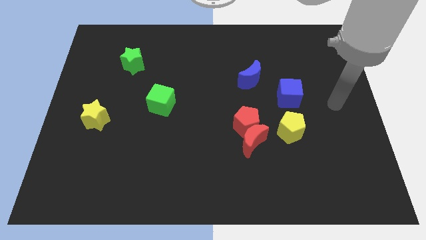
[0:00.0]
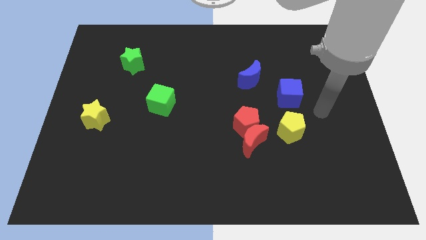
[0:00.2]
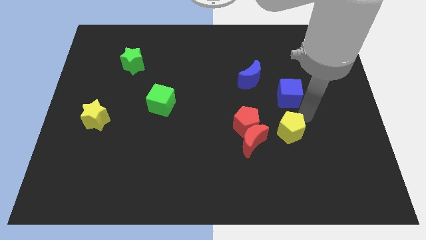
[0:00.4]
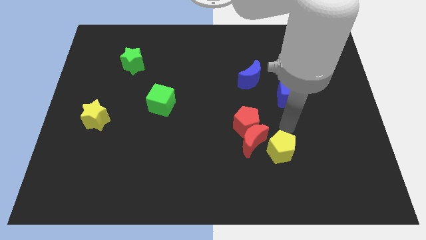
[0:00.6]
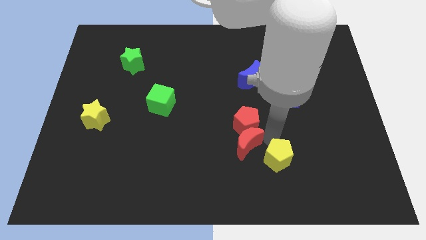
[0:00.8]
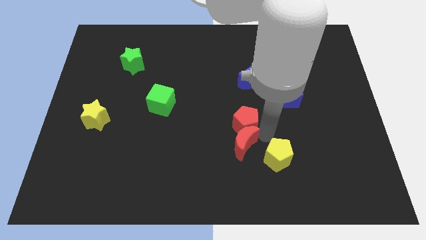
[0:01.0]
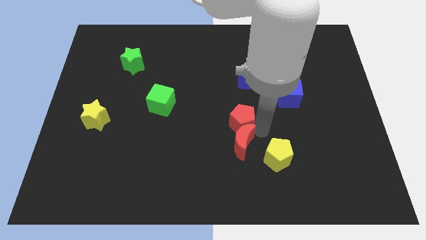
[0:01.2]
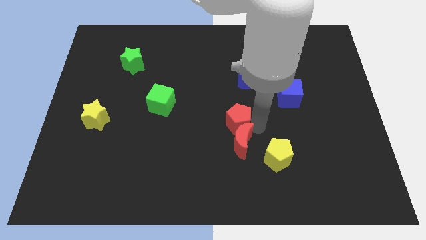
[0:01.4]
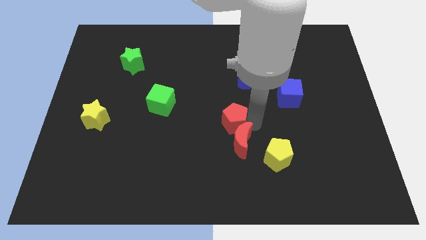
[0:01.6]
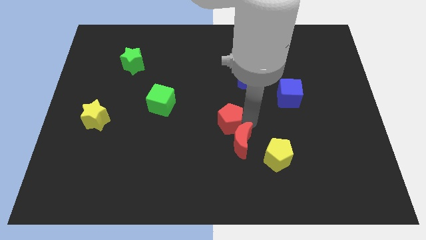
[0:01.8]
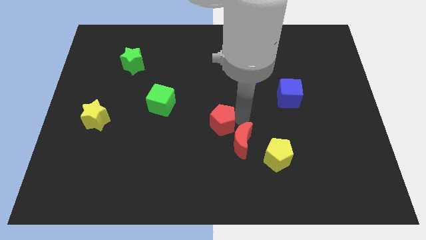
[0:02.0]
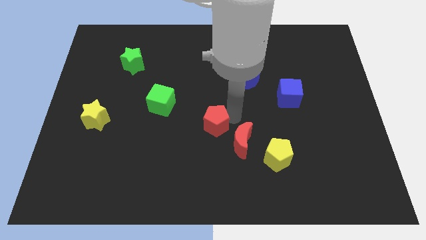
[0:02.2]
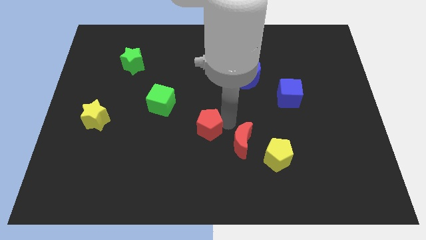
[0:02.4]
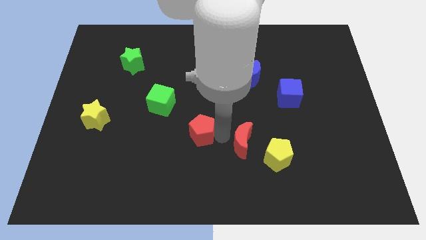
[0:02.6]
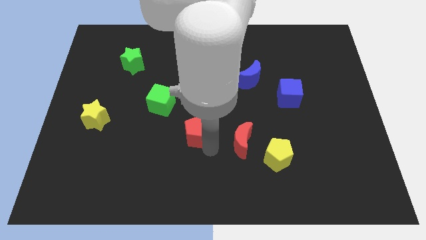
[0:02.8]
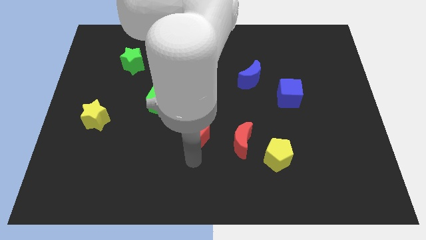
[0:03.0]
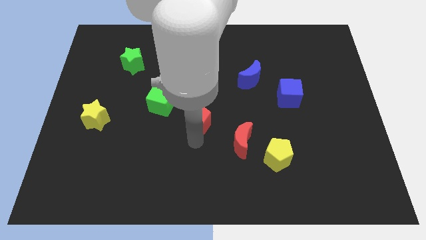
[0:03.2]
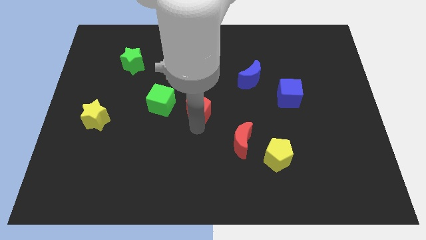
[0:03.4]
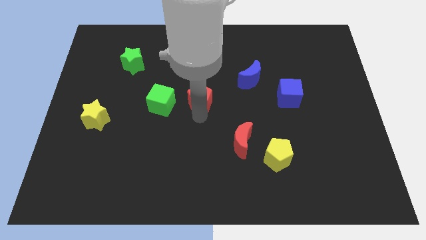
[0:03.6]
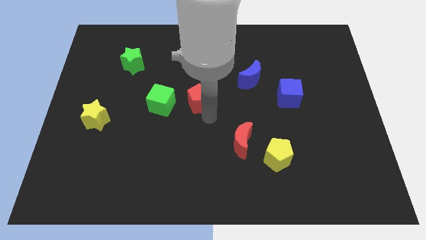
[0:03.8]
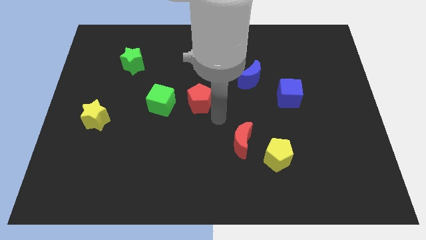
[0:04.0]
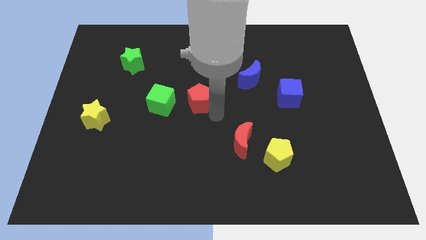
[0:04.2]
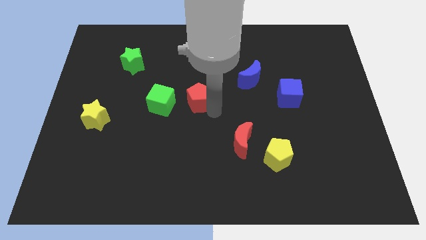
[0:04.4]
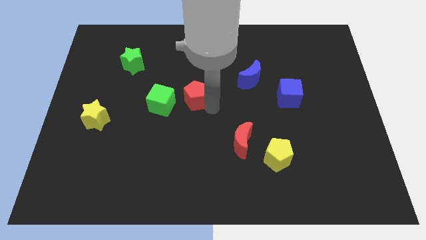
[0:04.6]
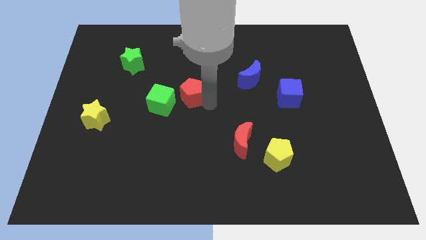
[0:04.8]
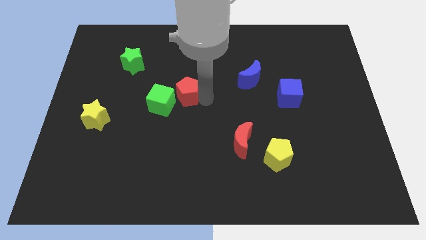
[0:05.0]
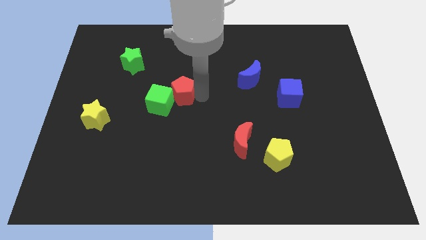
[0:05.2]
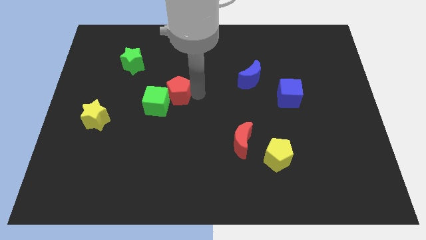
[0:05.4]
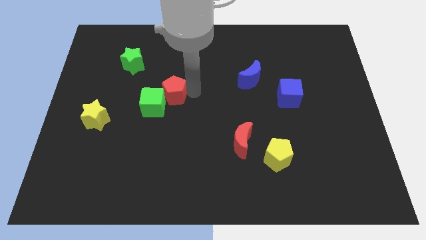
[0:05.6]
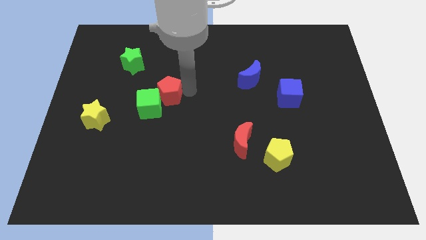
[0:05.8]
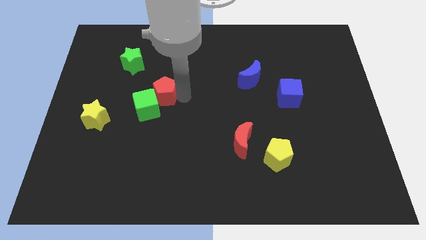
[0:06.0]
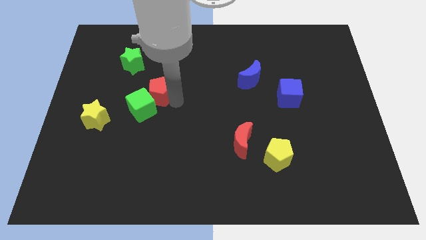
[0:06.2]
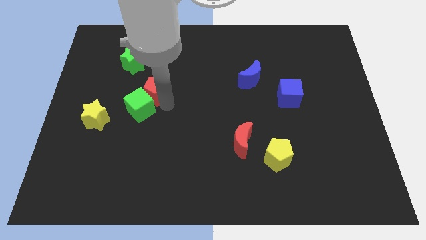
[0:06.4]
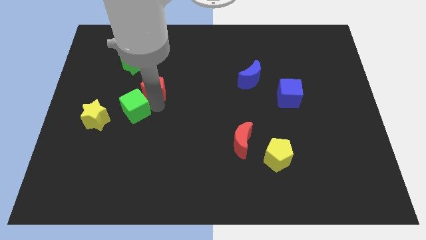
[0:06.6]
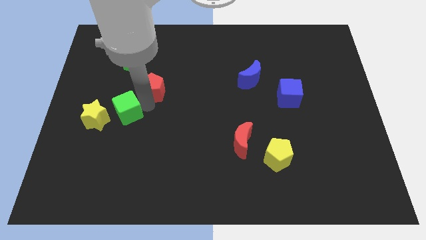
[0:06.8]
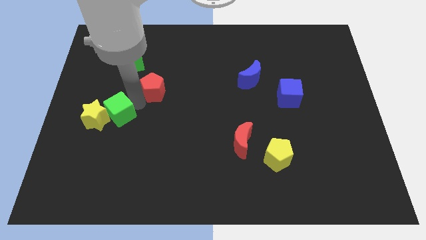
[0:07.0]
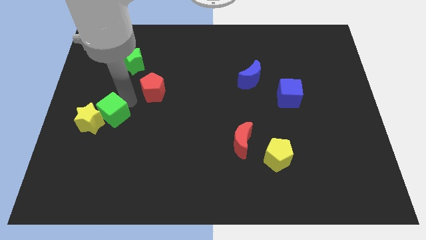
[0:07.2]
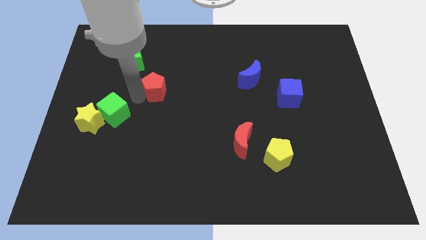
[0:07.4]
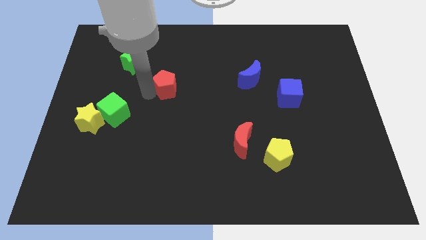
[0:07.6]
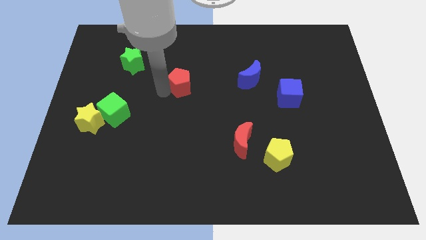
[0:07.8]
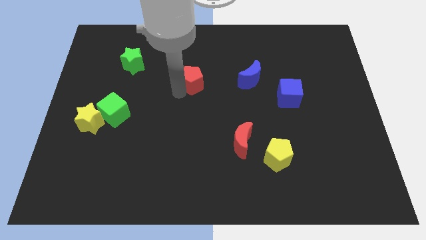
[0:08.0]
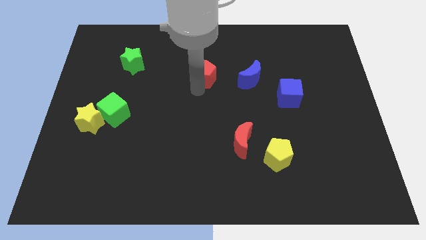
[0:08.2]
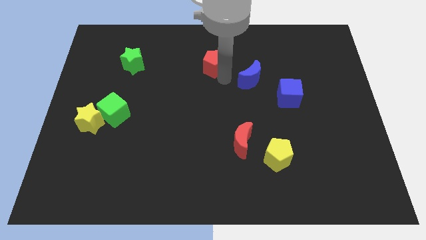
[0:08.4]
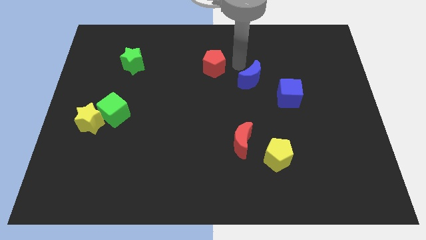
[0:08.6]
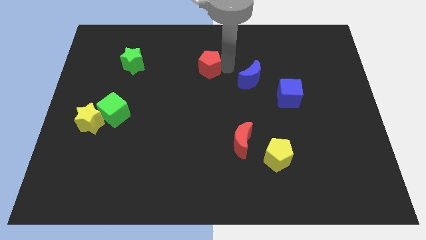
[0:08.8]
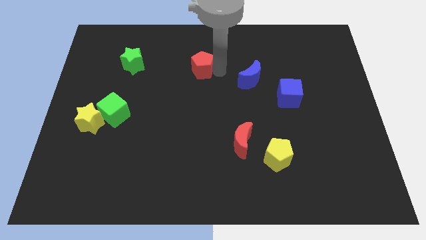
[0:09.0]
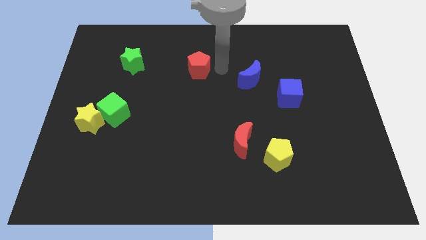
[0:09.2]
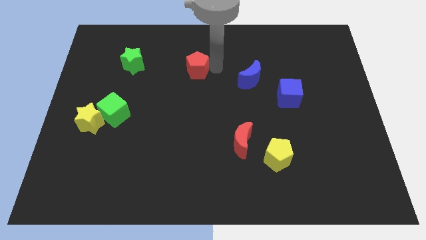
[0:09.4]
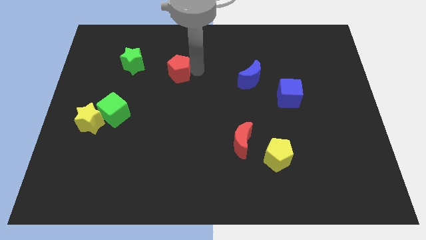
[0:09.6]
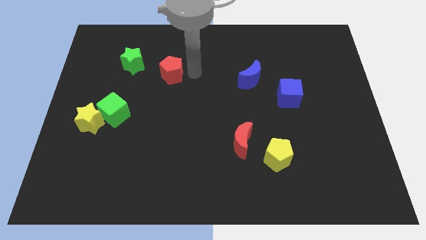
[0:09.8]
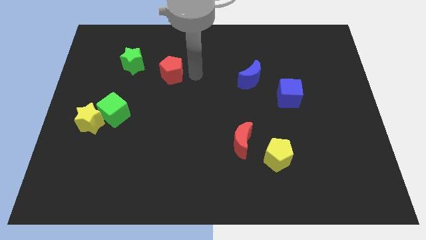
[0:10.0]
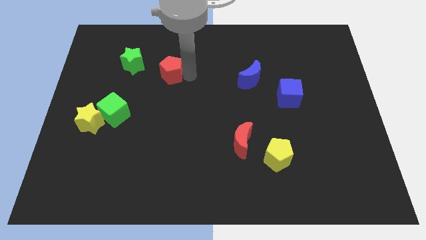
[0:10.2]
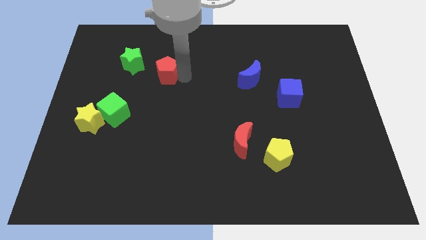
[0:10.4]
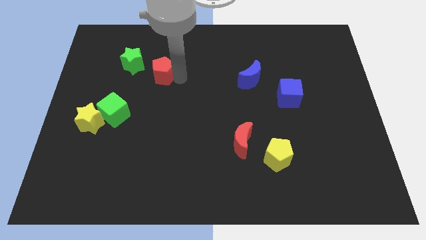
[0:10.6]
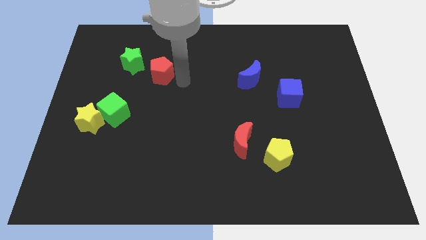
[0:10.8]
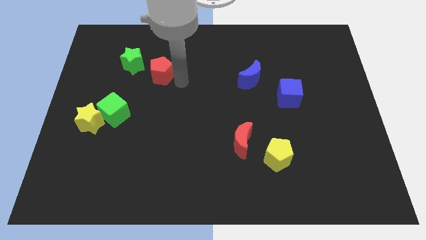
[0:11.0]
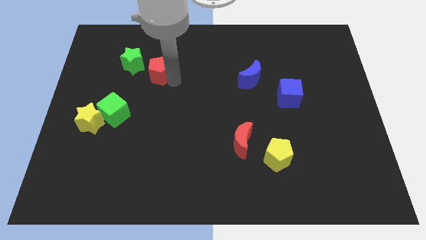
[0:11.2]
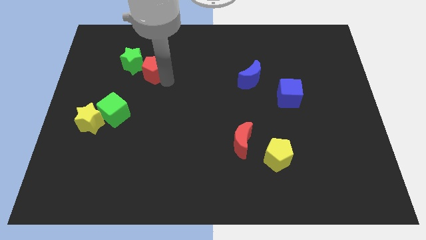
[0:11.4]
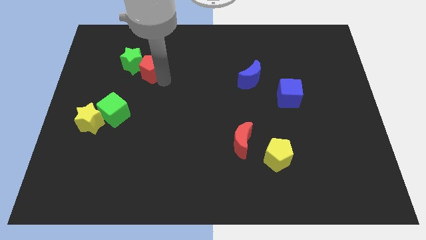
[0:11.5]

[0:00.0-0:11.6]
slide the red pentagon close to the green star

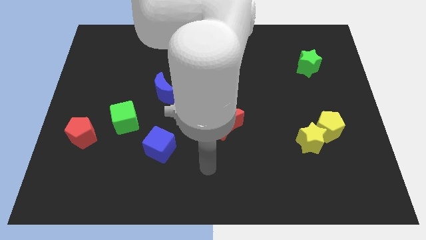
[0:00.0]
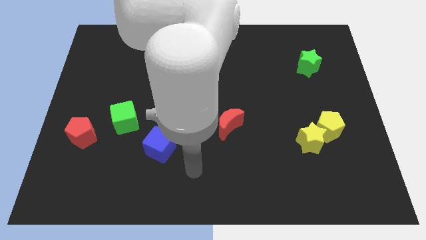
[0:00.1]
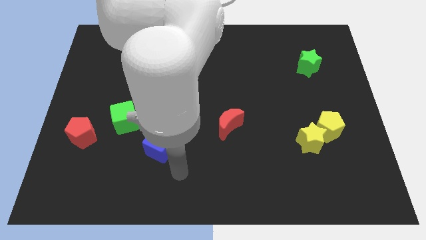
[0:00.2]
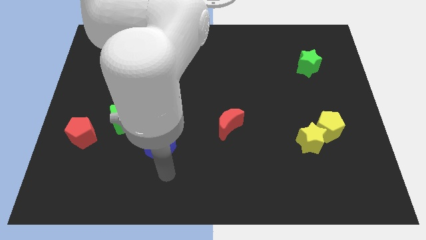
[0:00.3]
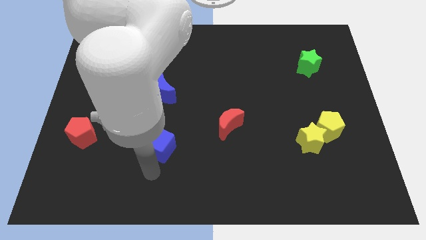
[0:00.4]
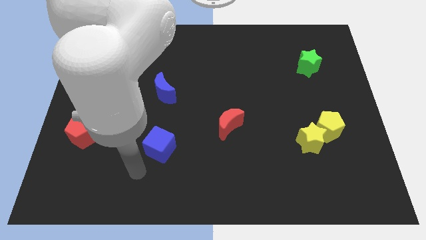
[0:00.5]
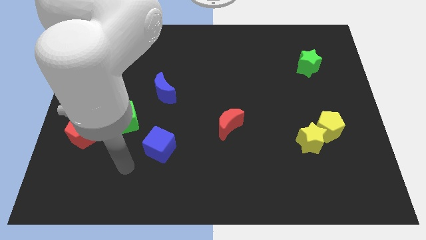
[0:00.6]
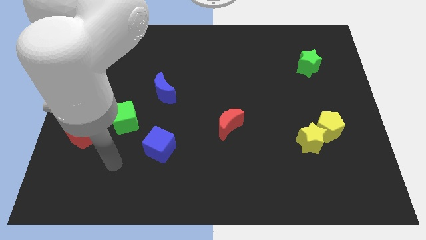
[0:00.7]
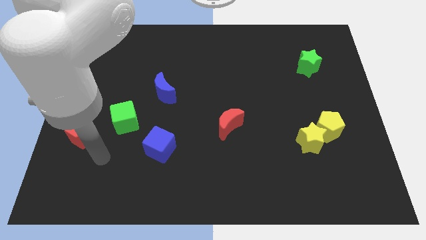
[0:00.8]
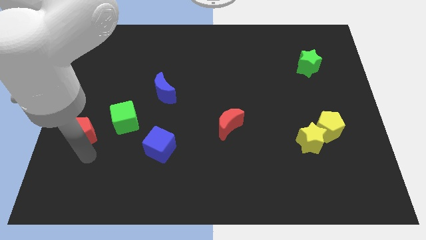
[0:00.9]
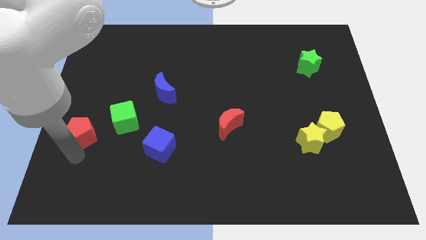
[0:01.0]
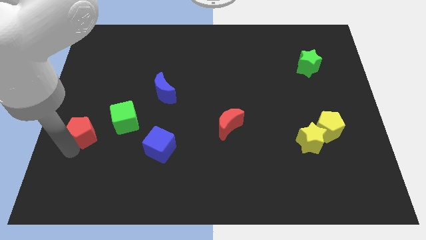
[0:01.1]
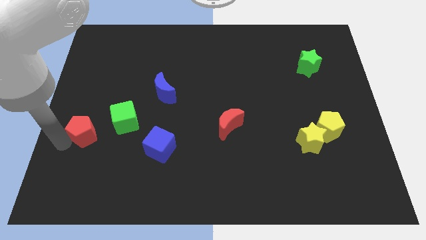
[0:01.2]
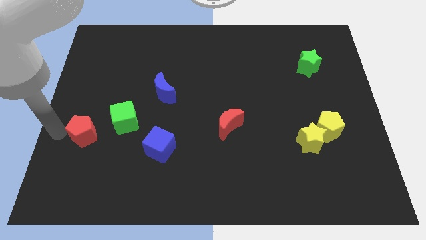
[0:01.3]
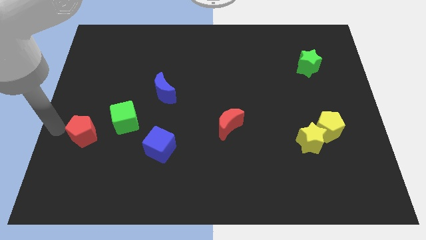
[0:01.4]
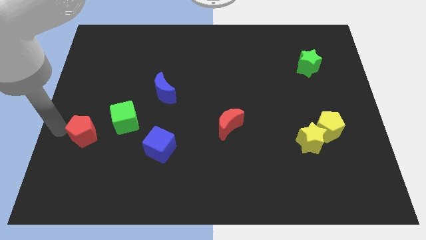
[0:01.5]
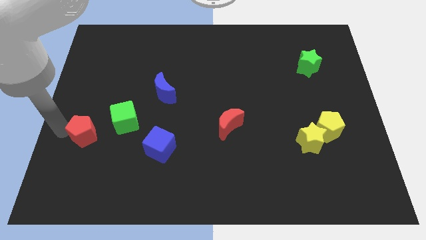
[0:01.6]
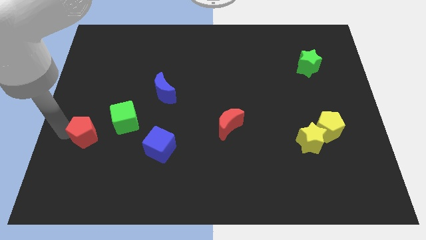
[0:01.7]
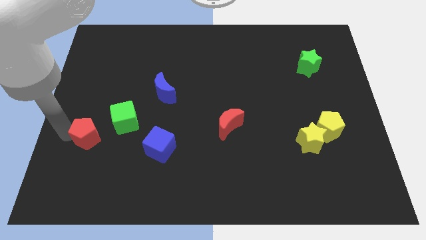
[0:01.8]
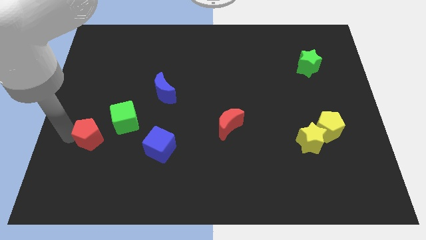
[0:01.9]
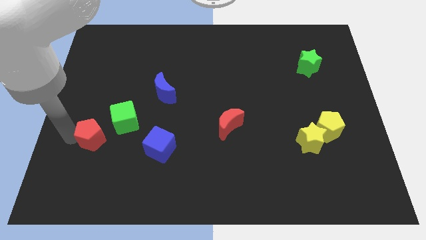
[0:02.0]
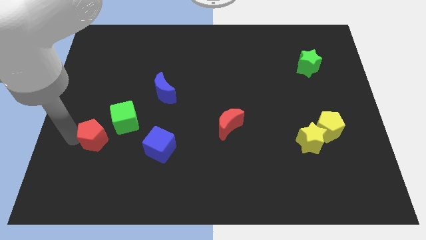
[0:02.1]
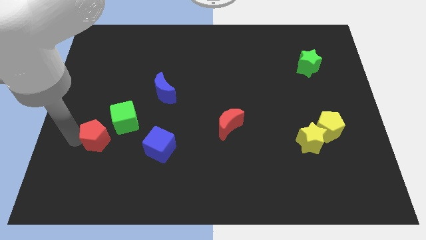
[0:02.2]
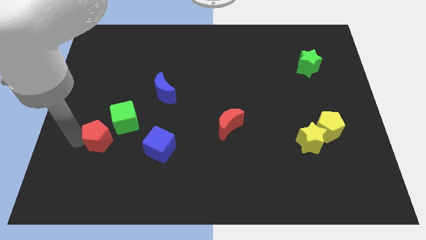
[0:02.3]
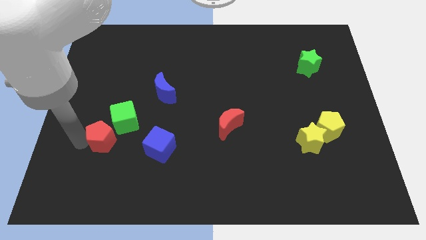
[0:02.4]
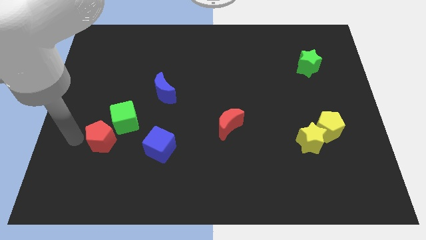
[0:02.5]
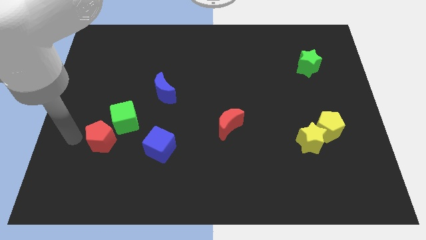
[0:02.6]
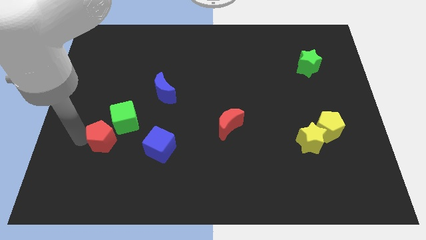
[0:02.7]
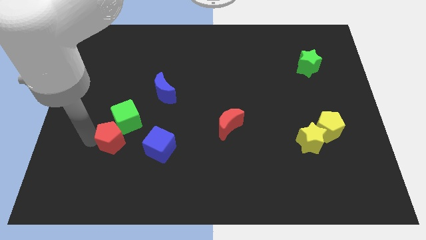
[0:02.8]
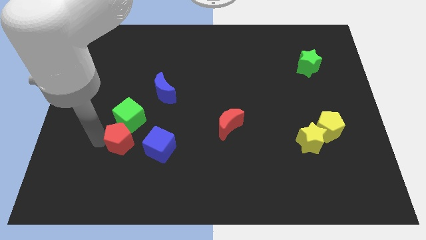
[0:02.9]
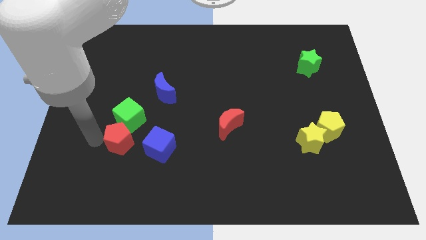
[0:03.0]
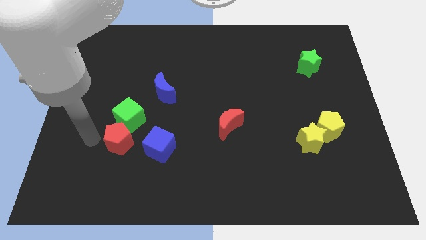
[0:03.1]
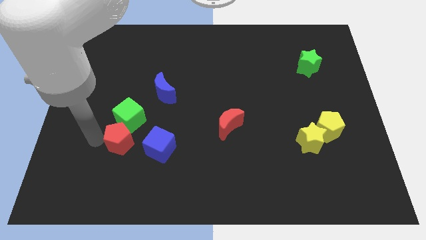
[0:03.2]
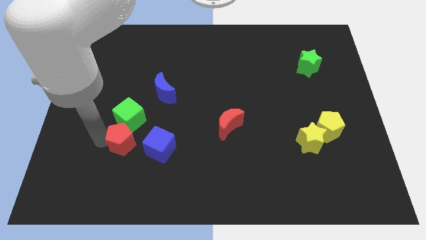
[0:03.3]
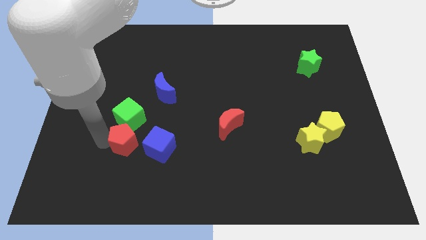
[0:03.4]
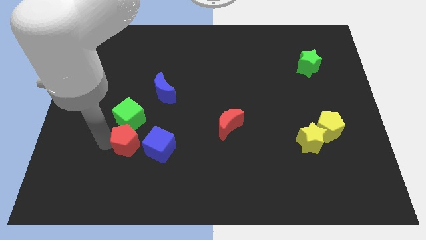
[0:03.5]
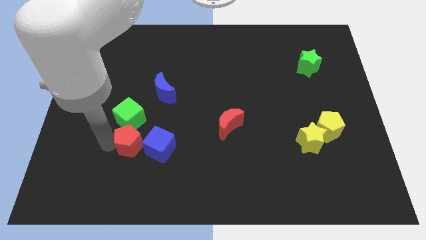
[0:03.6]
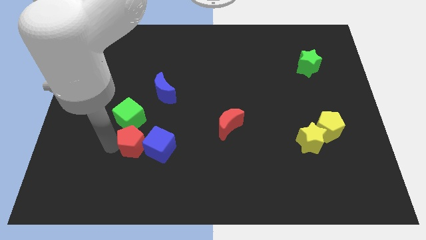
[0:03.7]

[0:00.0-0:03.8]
push the red pentagon to the blue cube
